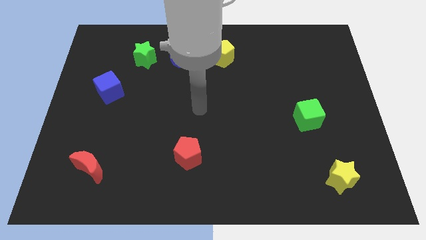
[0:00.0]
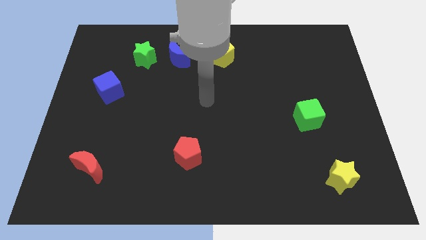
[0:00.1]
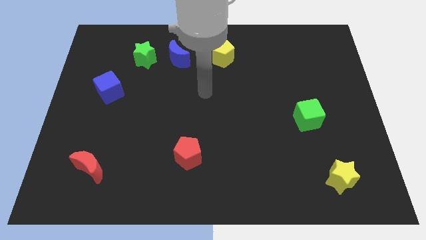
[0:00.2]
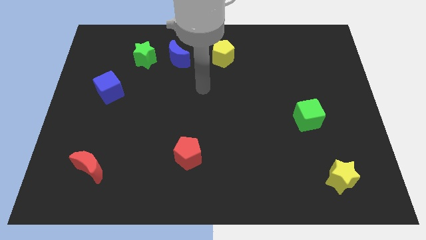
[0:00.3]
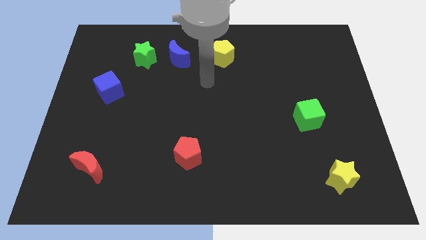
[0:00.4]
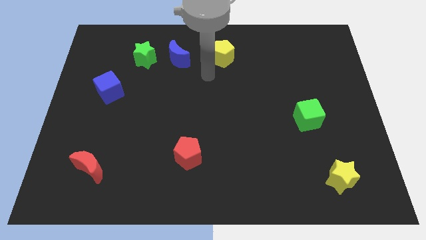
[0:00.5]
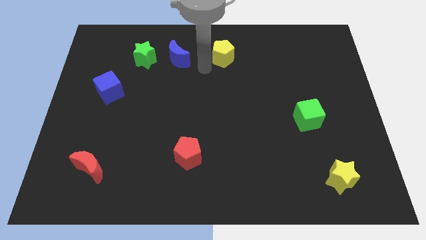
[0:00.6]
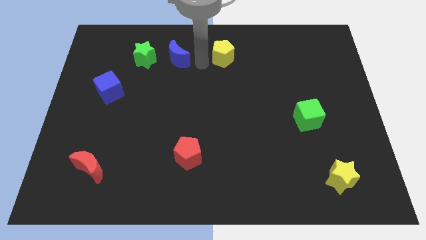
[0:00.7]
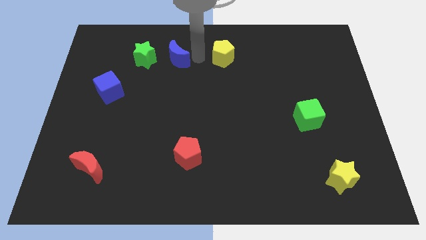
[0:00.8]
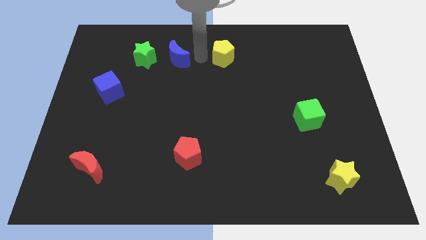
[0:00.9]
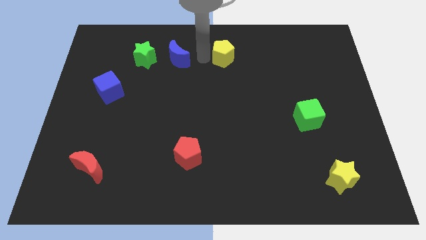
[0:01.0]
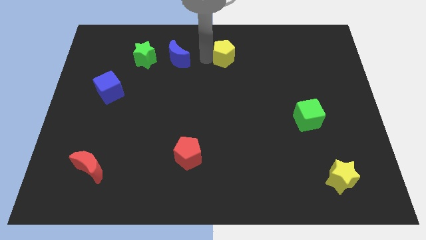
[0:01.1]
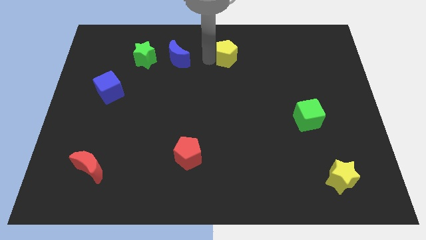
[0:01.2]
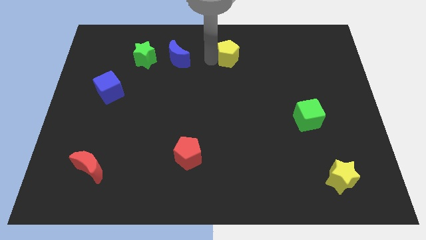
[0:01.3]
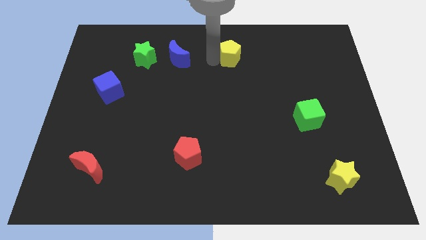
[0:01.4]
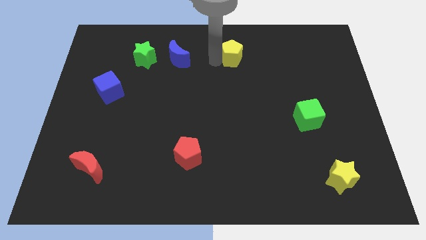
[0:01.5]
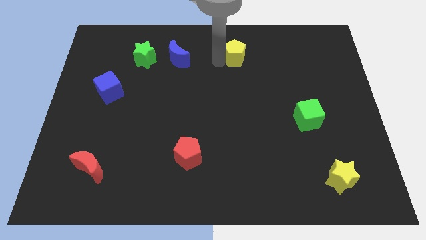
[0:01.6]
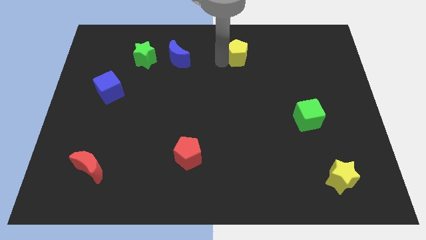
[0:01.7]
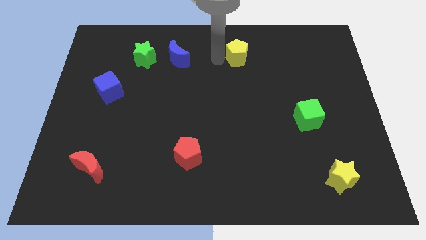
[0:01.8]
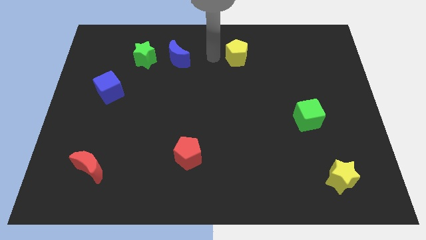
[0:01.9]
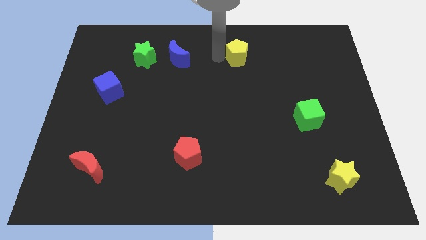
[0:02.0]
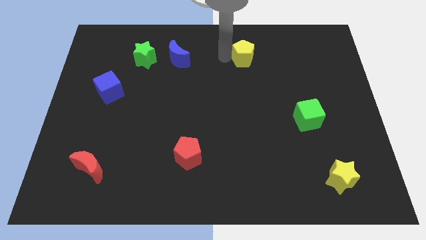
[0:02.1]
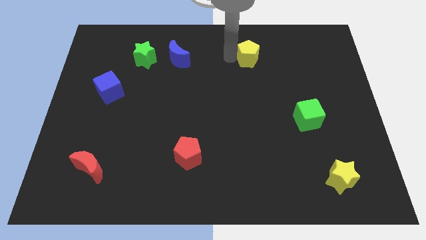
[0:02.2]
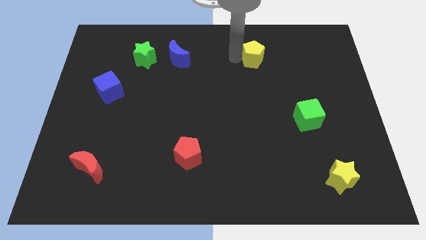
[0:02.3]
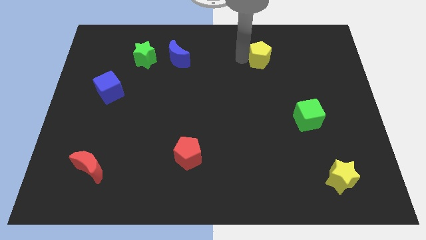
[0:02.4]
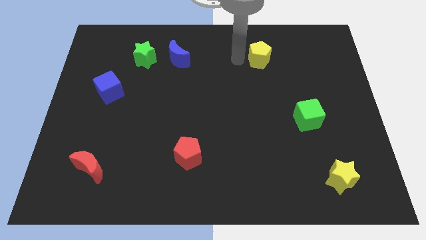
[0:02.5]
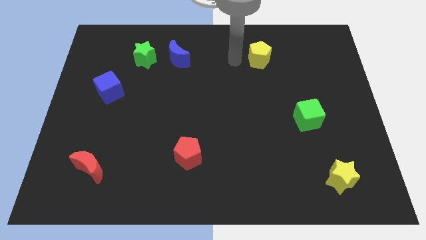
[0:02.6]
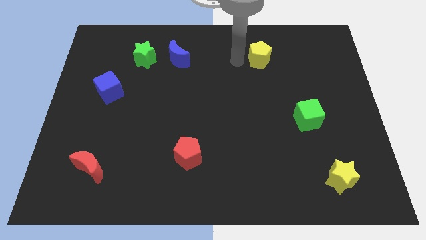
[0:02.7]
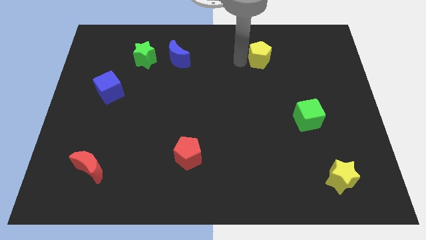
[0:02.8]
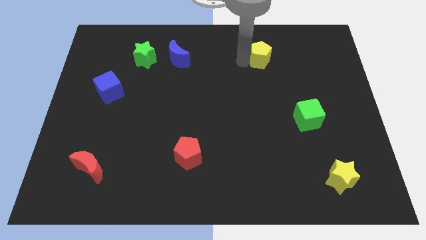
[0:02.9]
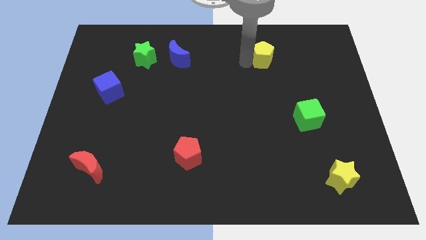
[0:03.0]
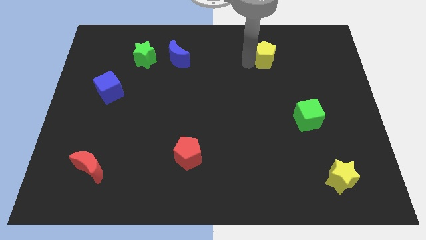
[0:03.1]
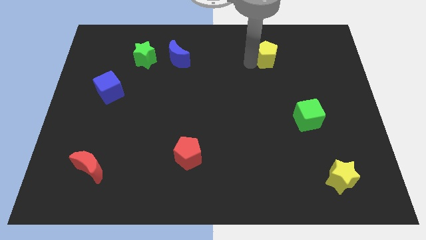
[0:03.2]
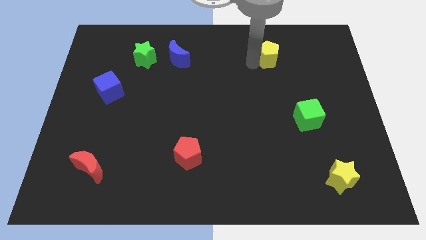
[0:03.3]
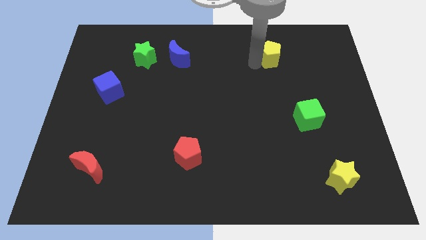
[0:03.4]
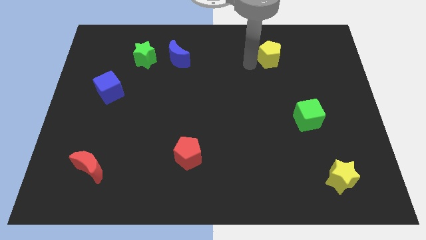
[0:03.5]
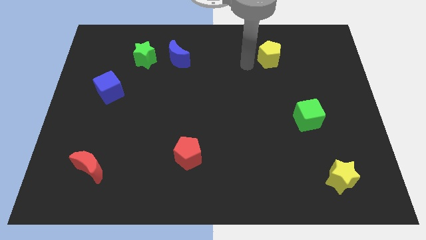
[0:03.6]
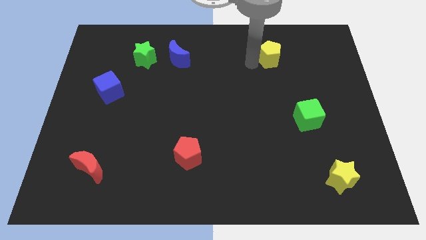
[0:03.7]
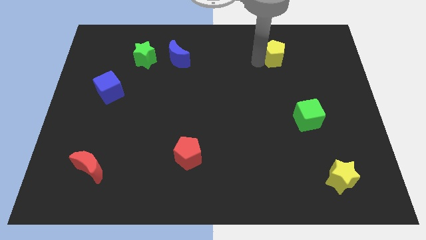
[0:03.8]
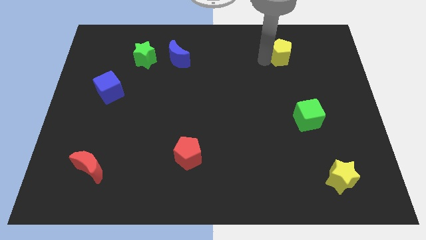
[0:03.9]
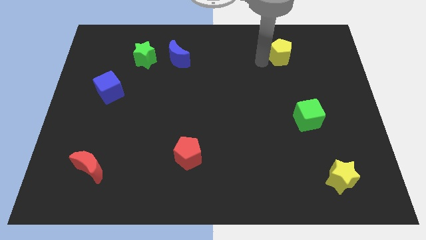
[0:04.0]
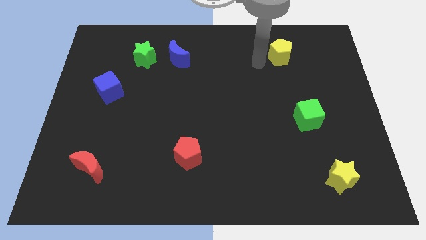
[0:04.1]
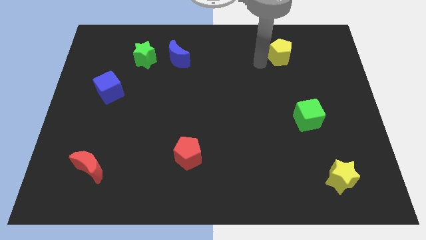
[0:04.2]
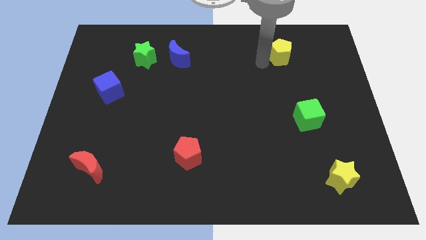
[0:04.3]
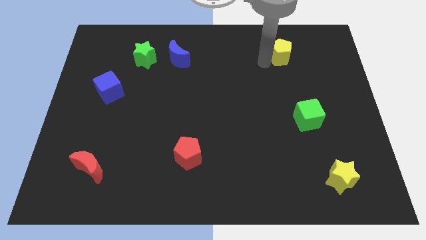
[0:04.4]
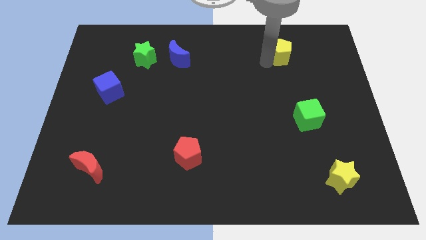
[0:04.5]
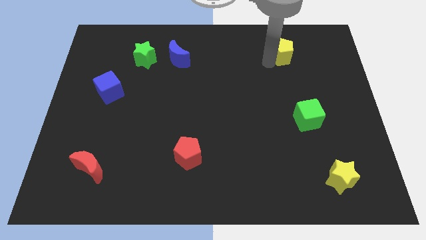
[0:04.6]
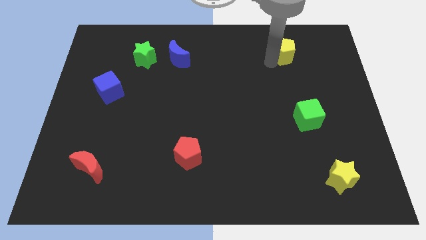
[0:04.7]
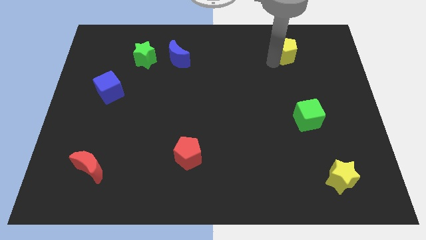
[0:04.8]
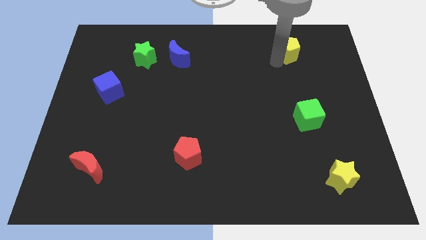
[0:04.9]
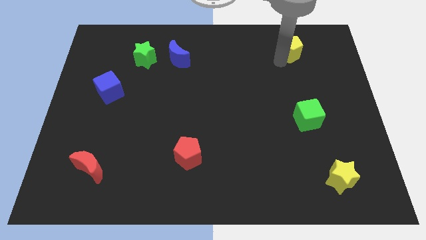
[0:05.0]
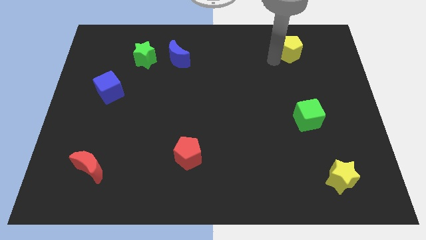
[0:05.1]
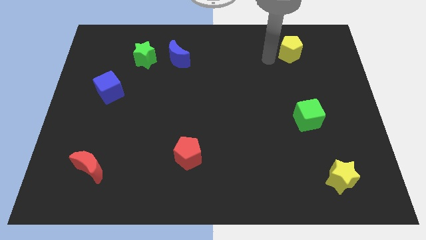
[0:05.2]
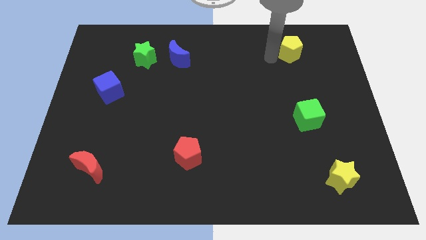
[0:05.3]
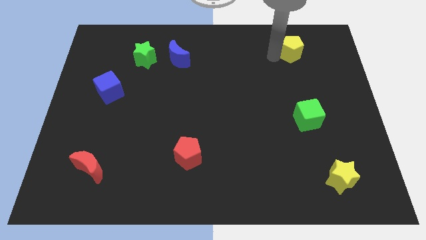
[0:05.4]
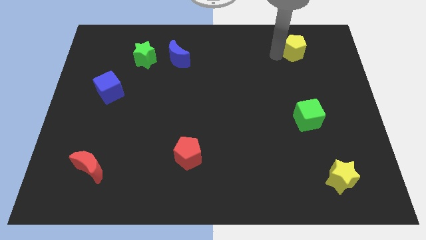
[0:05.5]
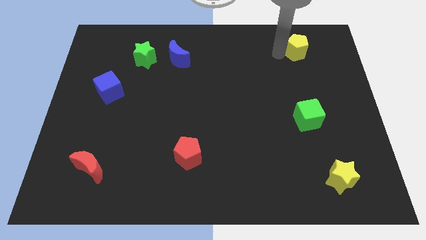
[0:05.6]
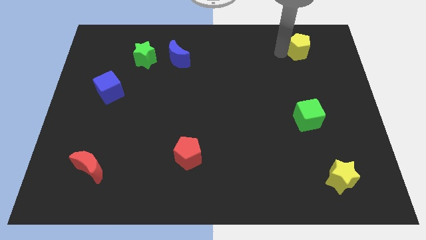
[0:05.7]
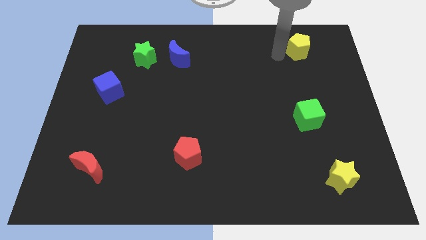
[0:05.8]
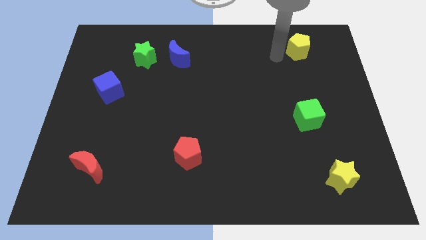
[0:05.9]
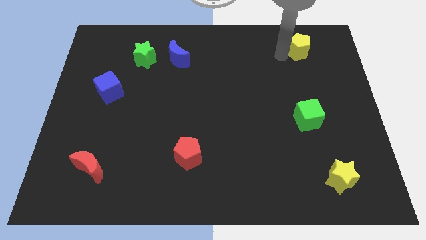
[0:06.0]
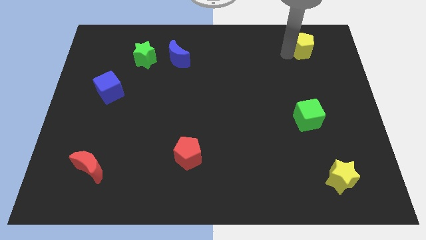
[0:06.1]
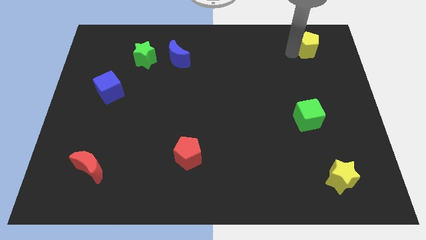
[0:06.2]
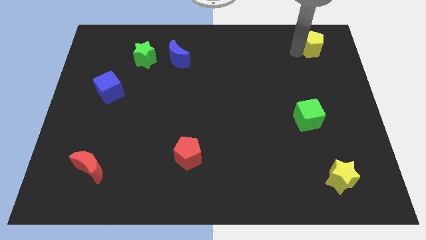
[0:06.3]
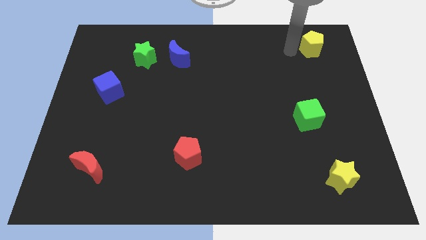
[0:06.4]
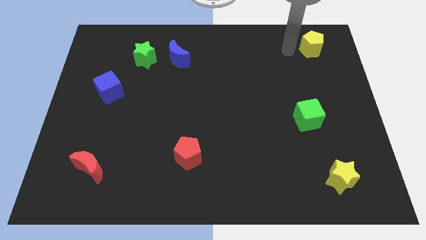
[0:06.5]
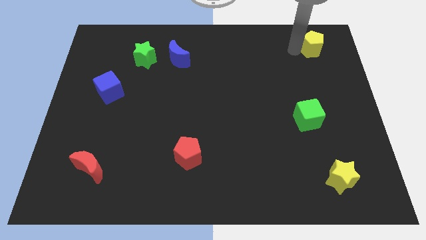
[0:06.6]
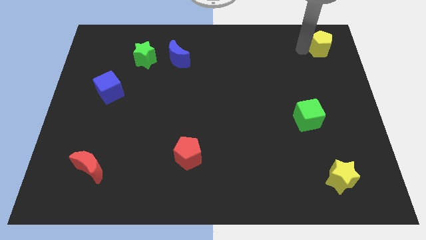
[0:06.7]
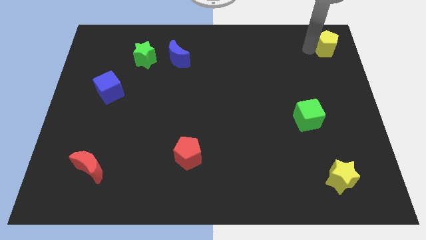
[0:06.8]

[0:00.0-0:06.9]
move the yellow pentagon to the top right corner
